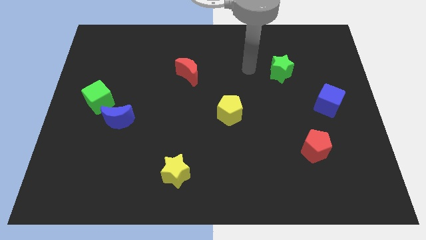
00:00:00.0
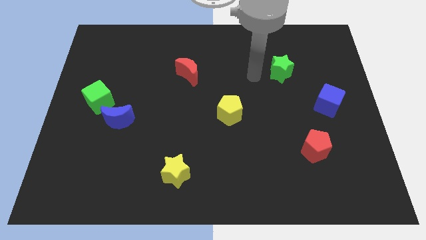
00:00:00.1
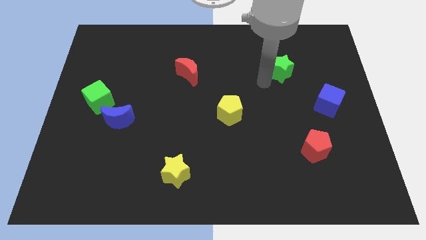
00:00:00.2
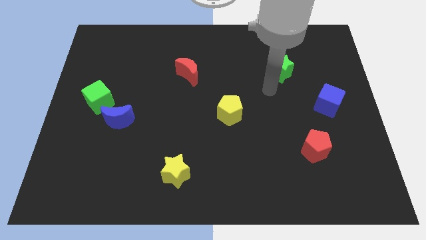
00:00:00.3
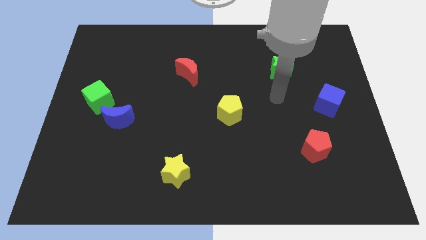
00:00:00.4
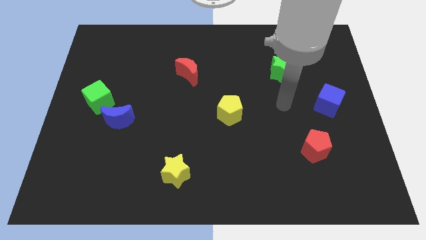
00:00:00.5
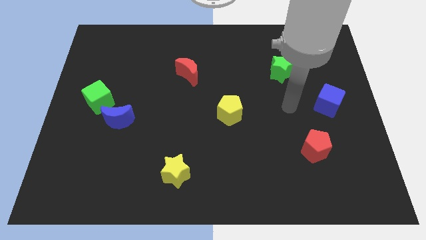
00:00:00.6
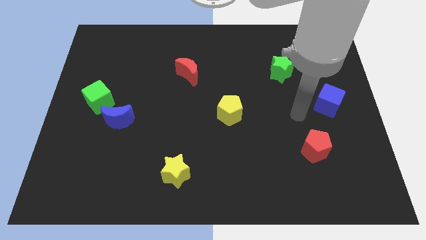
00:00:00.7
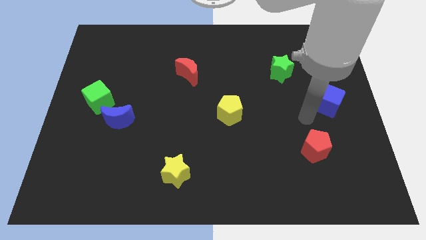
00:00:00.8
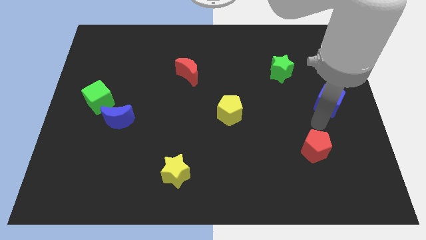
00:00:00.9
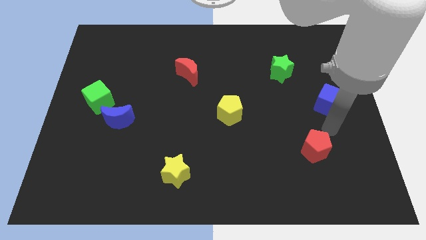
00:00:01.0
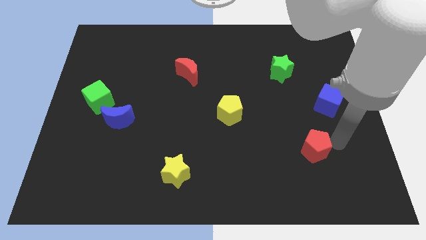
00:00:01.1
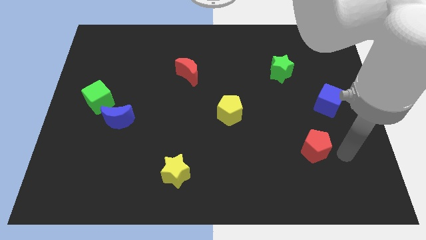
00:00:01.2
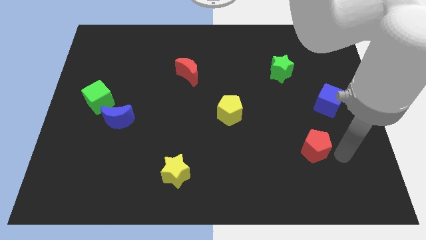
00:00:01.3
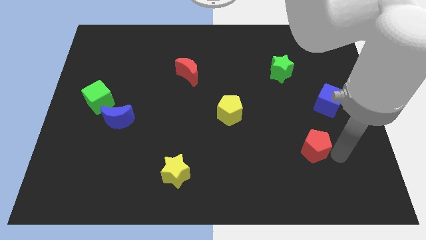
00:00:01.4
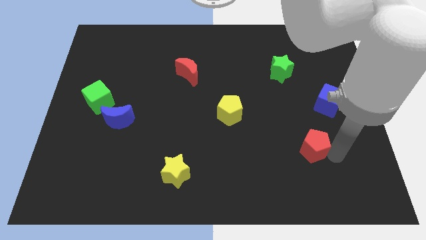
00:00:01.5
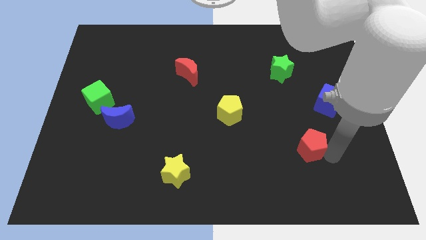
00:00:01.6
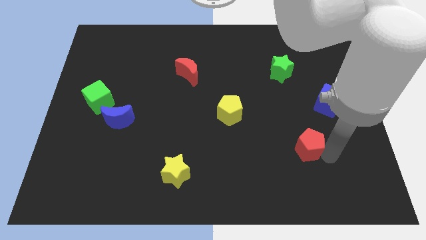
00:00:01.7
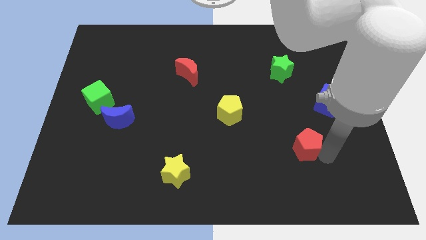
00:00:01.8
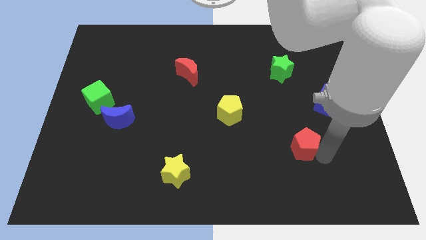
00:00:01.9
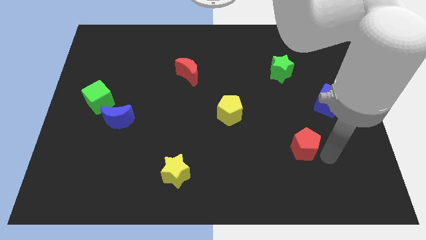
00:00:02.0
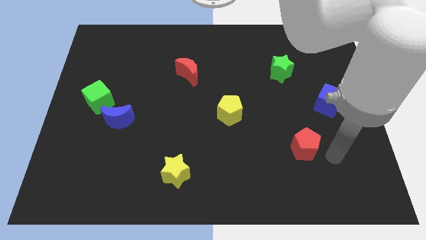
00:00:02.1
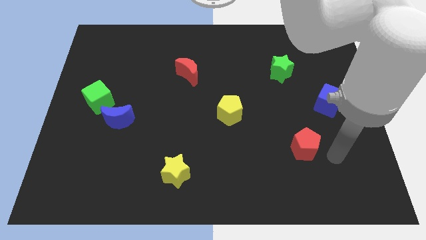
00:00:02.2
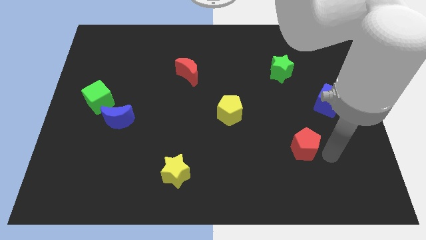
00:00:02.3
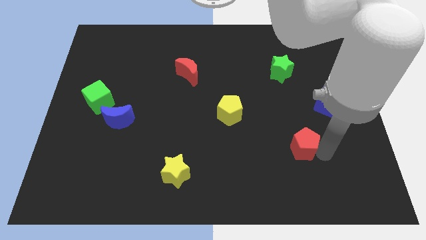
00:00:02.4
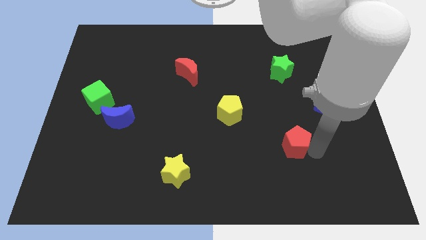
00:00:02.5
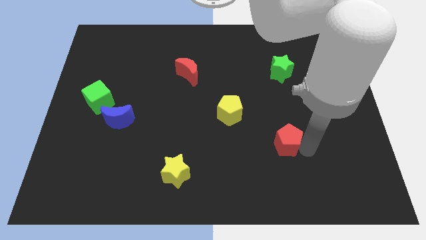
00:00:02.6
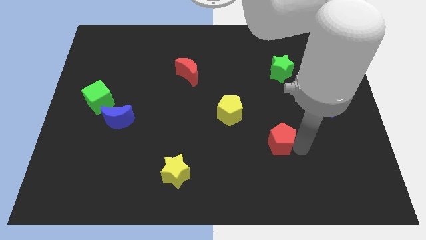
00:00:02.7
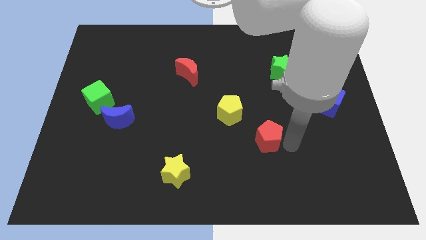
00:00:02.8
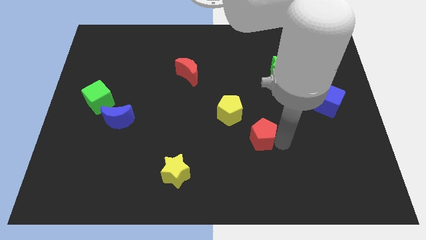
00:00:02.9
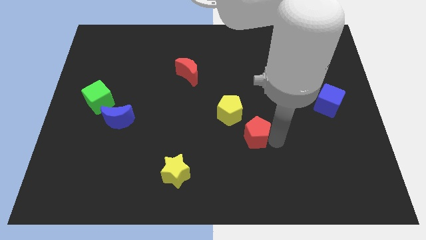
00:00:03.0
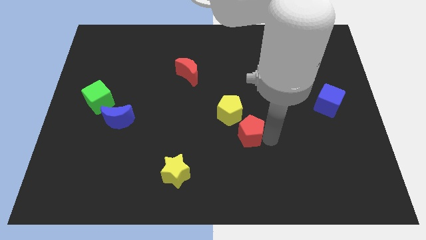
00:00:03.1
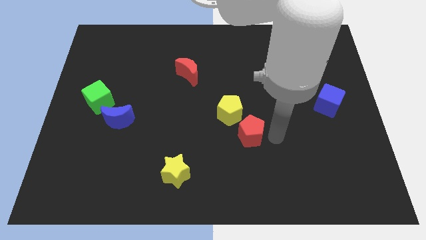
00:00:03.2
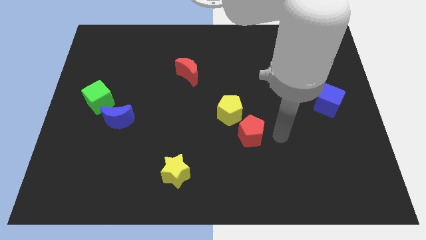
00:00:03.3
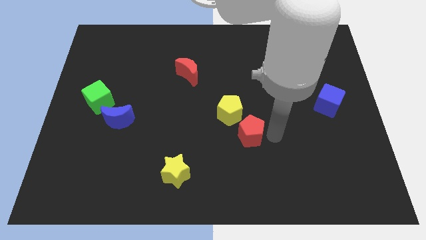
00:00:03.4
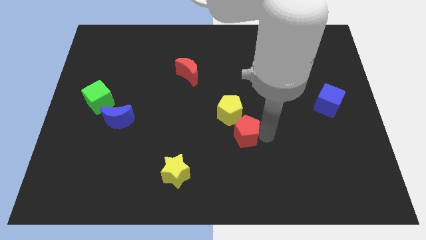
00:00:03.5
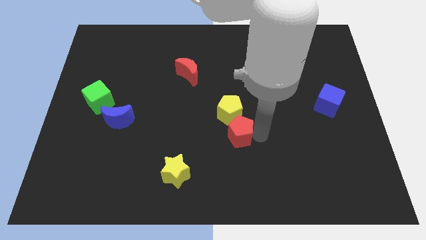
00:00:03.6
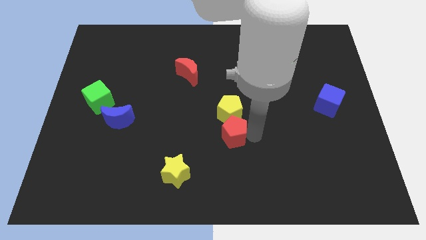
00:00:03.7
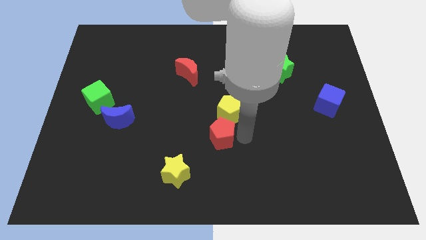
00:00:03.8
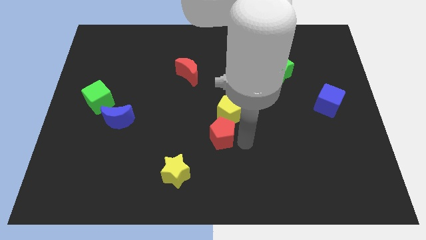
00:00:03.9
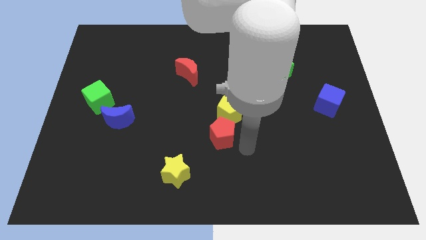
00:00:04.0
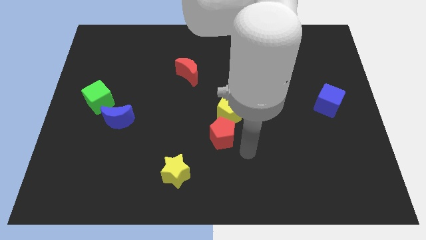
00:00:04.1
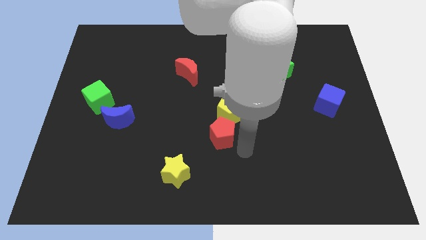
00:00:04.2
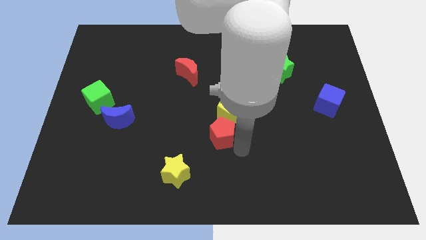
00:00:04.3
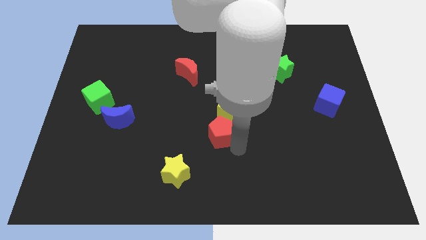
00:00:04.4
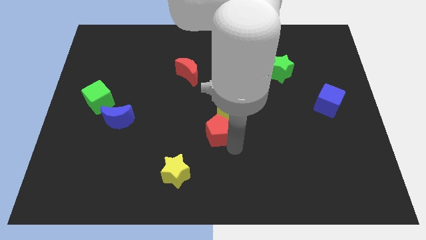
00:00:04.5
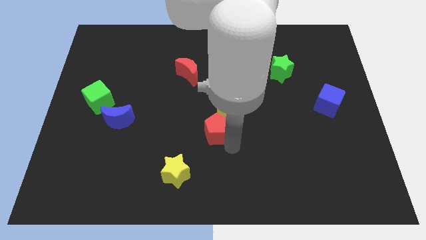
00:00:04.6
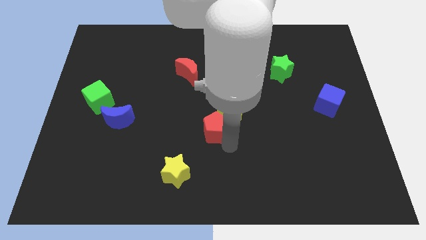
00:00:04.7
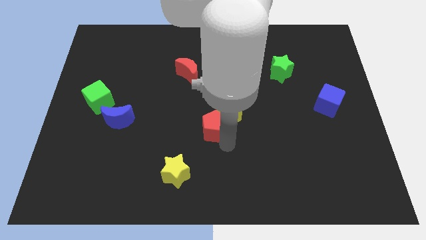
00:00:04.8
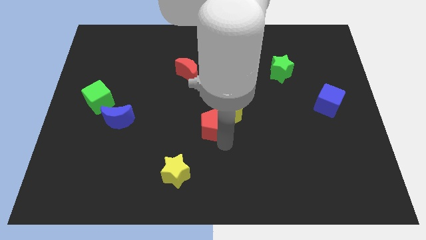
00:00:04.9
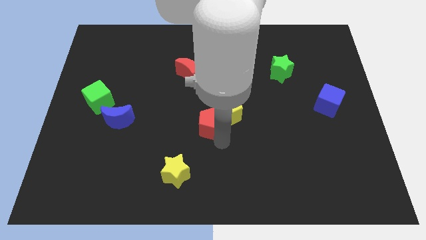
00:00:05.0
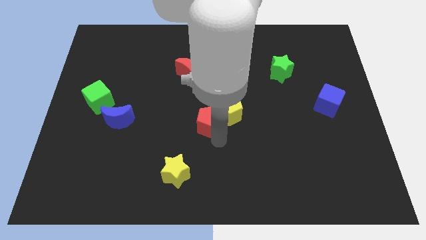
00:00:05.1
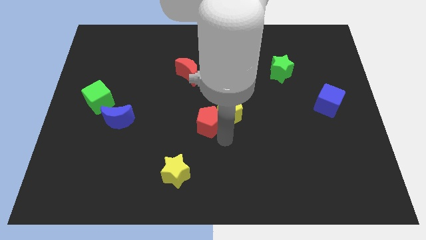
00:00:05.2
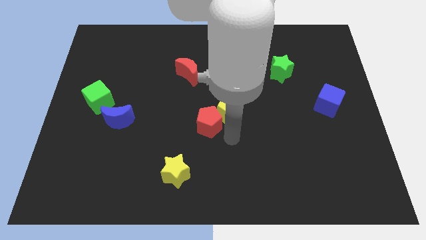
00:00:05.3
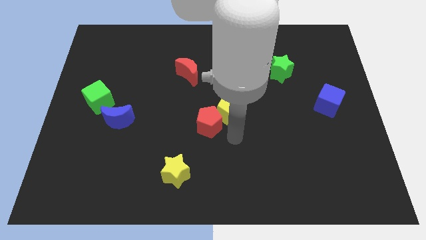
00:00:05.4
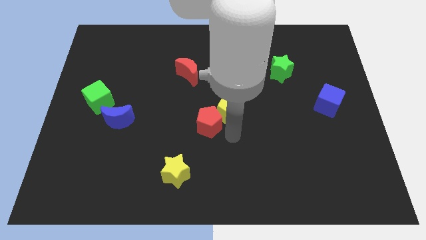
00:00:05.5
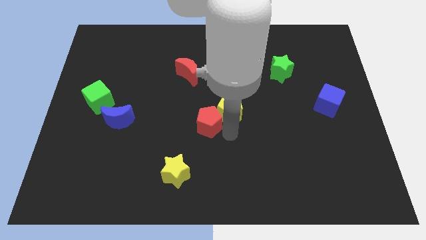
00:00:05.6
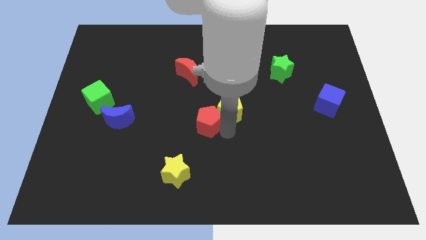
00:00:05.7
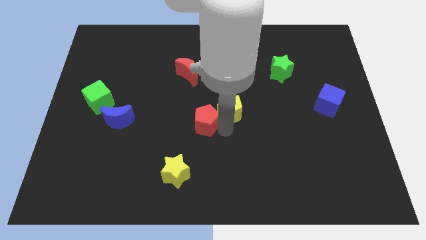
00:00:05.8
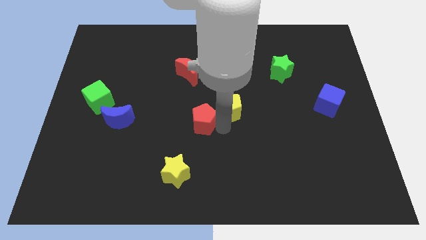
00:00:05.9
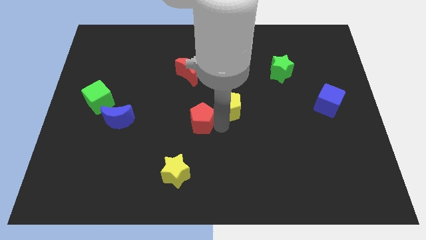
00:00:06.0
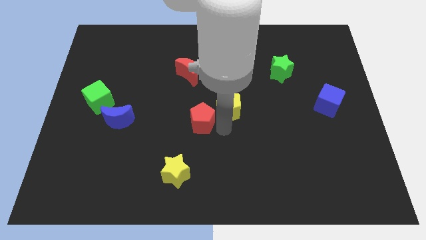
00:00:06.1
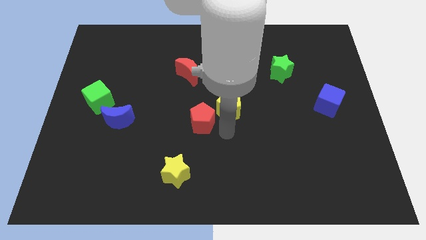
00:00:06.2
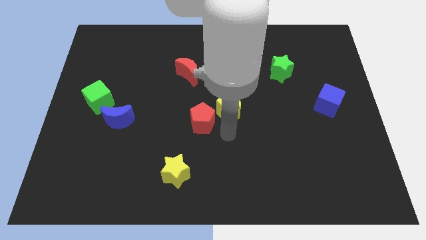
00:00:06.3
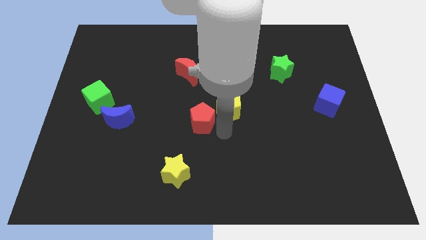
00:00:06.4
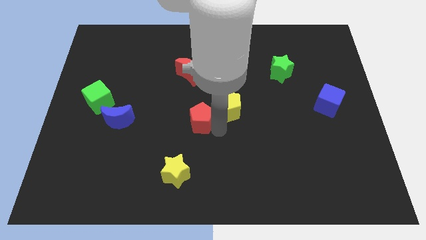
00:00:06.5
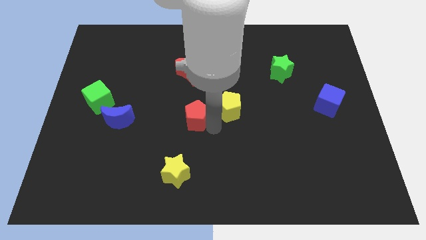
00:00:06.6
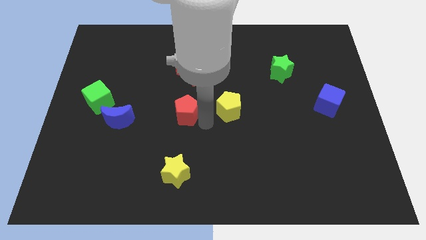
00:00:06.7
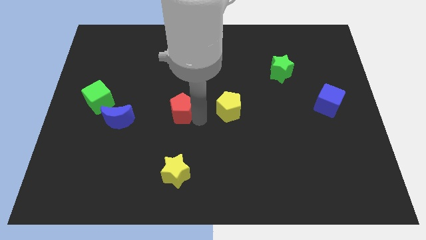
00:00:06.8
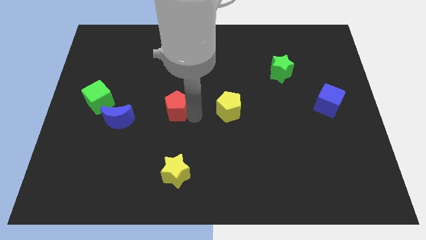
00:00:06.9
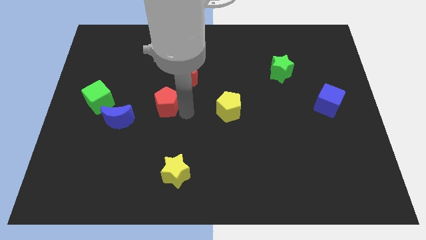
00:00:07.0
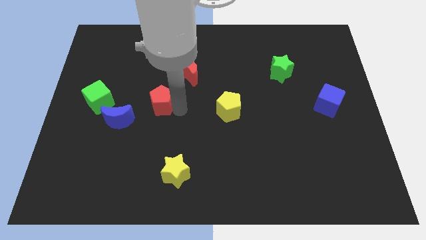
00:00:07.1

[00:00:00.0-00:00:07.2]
move the red pentagon to the top right side of the blue moon
